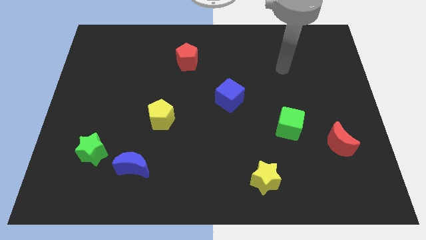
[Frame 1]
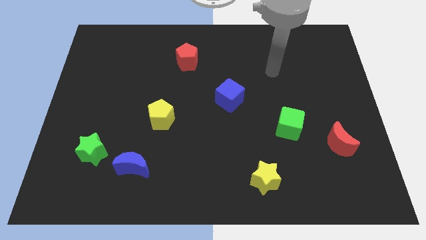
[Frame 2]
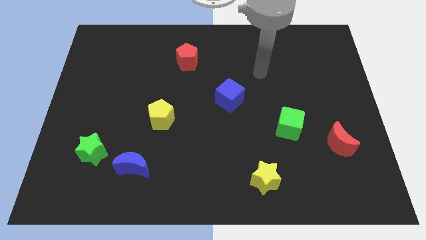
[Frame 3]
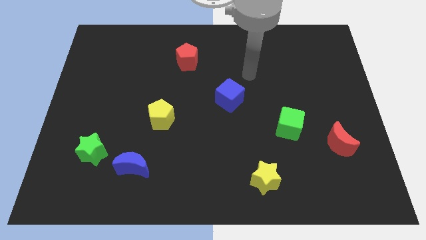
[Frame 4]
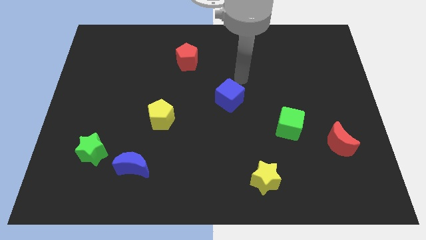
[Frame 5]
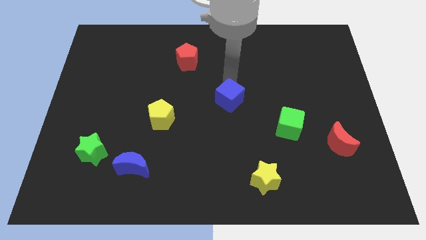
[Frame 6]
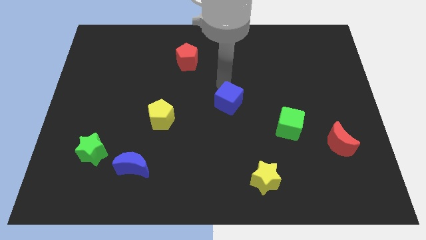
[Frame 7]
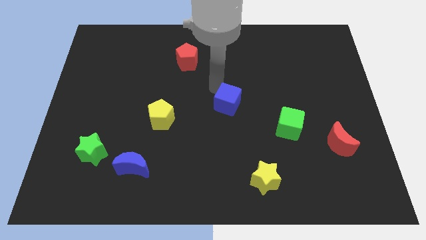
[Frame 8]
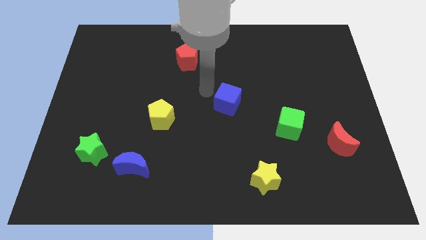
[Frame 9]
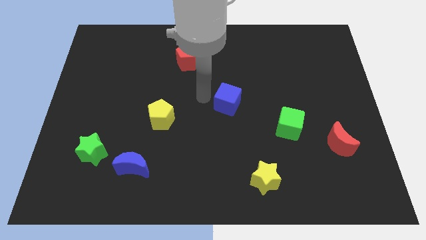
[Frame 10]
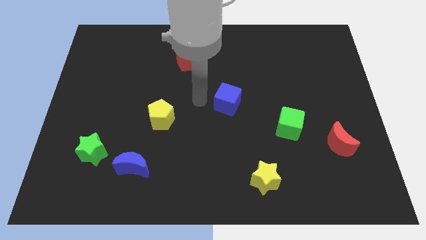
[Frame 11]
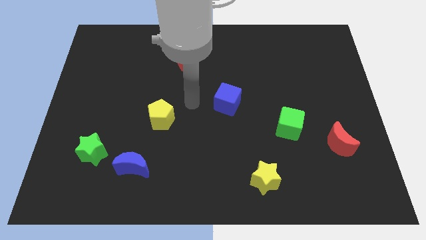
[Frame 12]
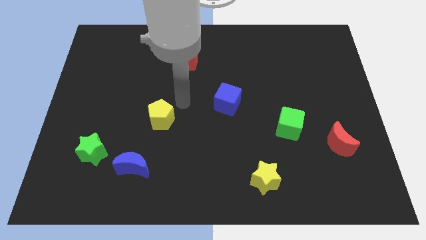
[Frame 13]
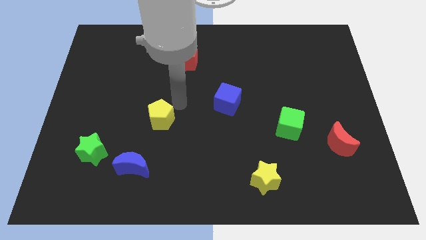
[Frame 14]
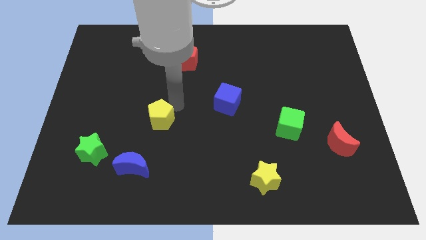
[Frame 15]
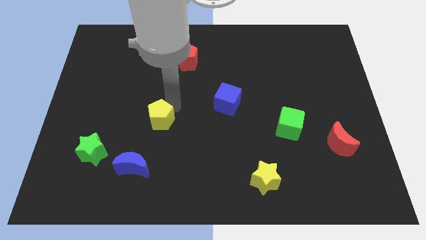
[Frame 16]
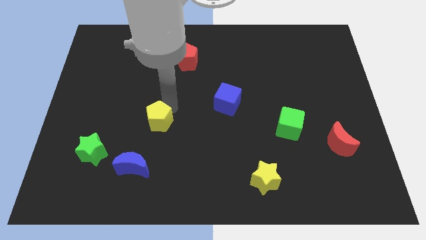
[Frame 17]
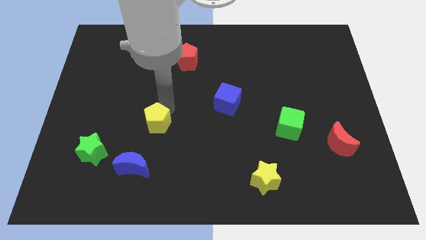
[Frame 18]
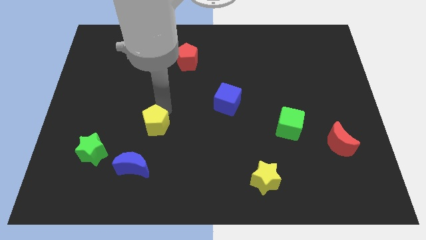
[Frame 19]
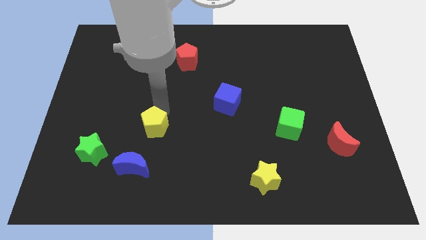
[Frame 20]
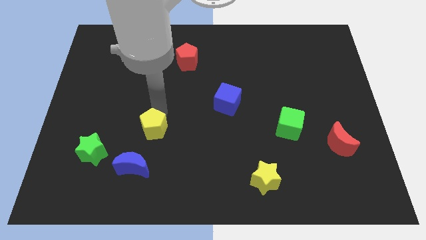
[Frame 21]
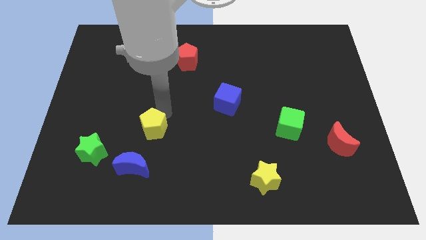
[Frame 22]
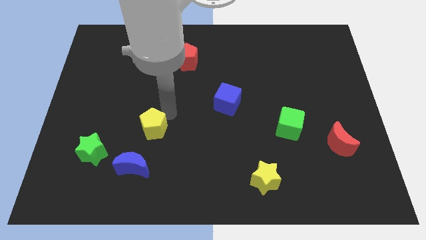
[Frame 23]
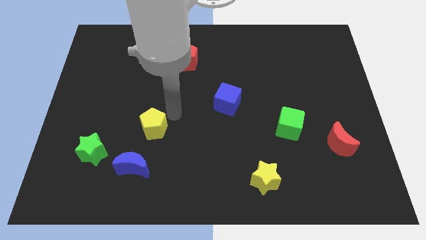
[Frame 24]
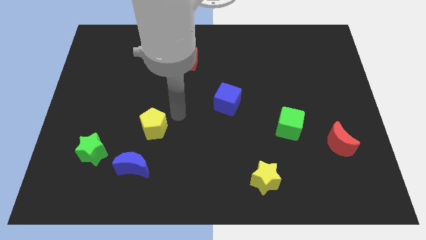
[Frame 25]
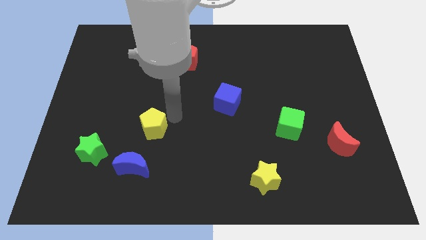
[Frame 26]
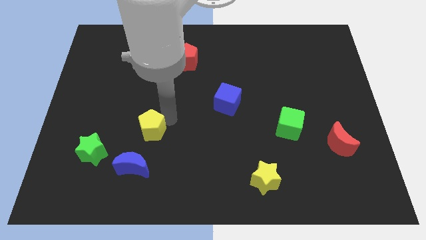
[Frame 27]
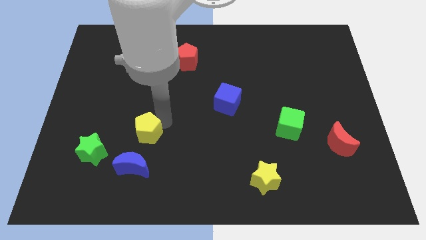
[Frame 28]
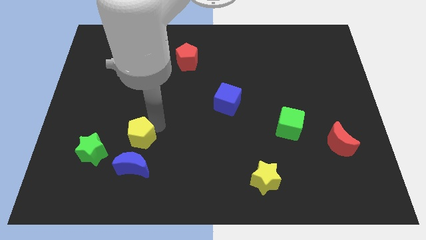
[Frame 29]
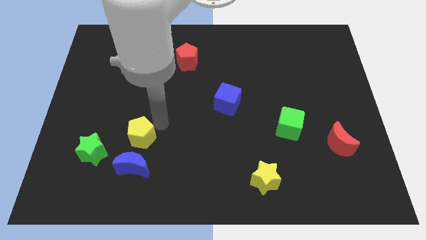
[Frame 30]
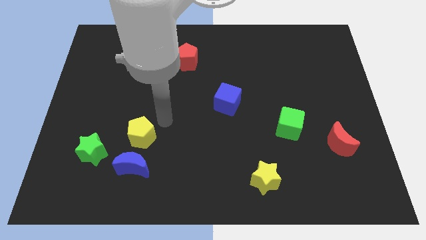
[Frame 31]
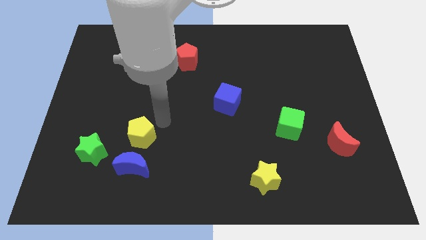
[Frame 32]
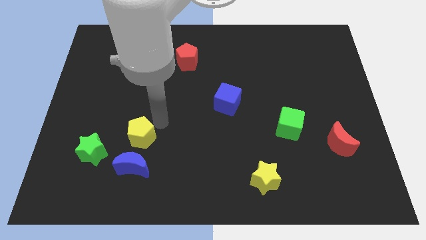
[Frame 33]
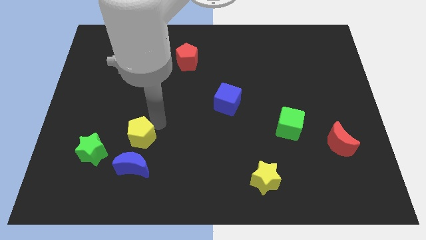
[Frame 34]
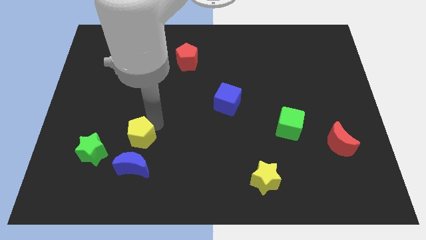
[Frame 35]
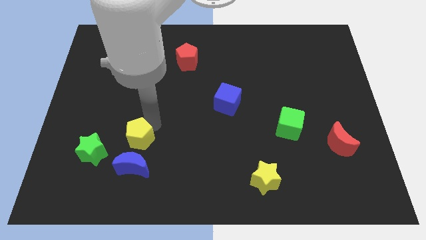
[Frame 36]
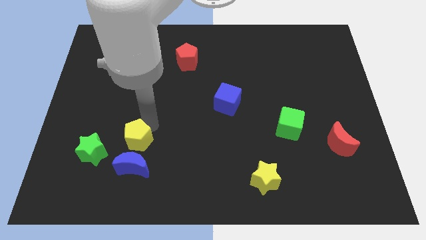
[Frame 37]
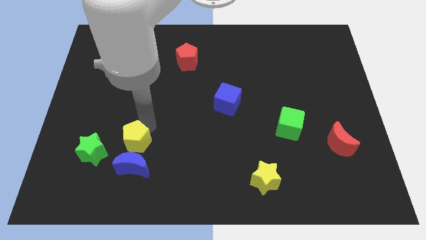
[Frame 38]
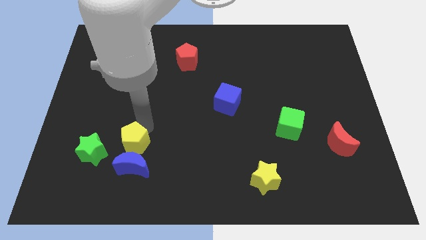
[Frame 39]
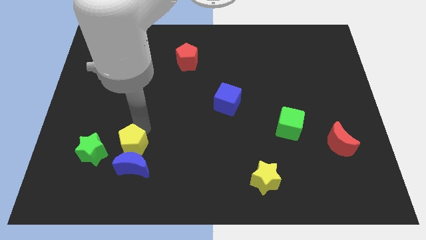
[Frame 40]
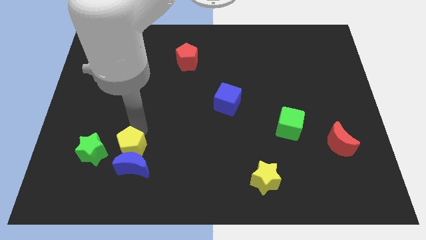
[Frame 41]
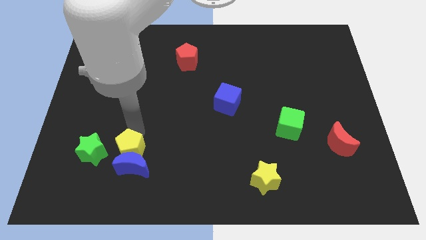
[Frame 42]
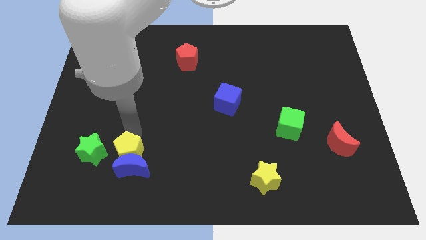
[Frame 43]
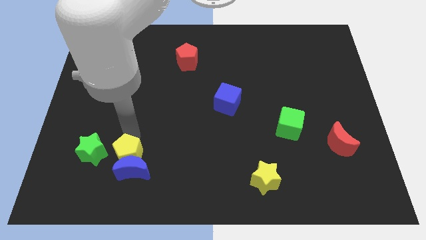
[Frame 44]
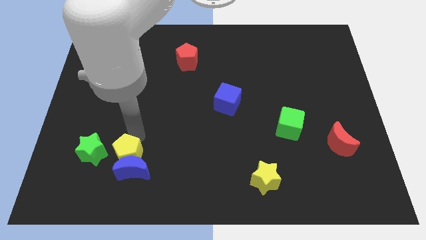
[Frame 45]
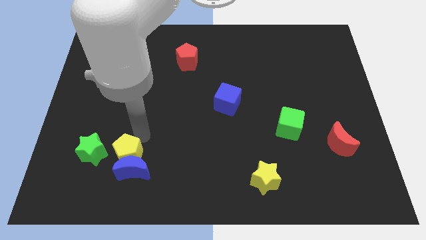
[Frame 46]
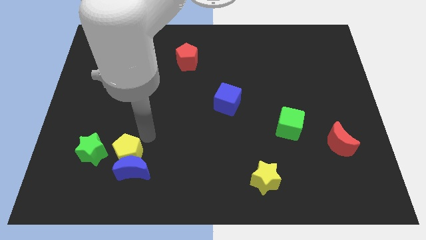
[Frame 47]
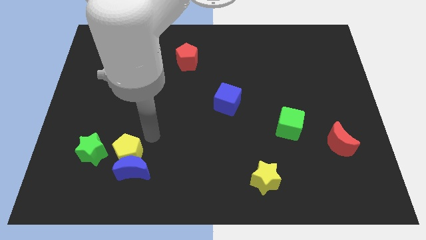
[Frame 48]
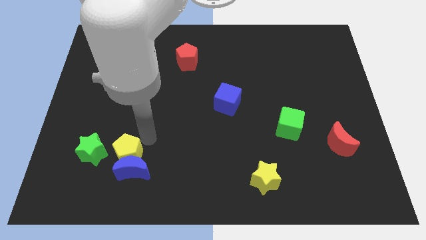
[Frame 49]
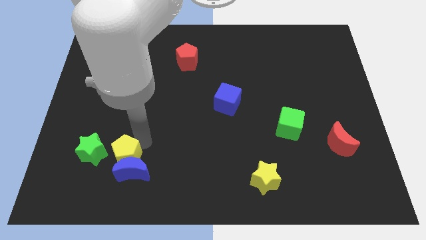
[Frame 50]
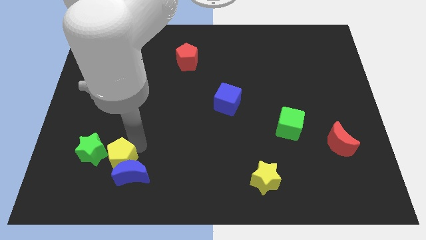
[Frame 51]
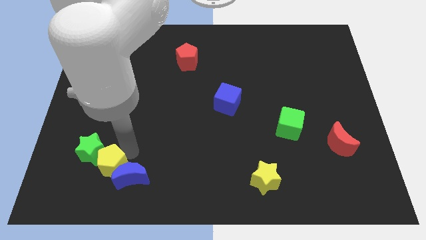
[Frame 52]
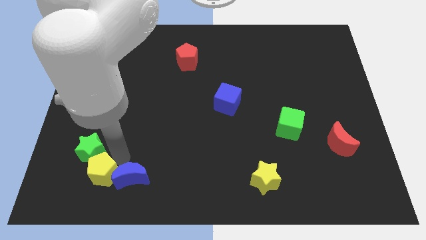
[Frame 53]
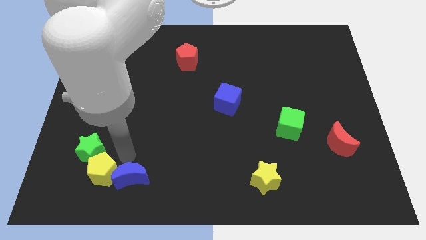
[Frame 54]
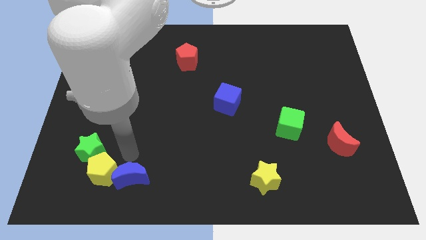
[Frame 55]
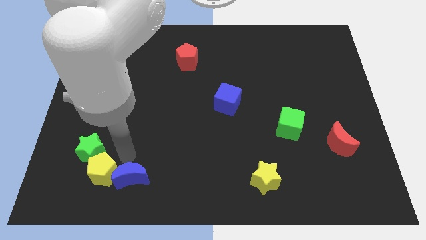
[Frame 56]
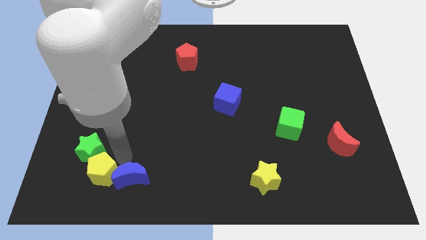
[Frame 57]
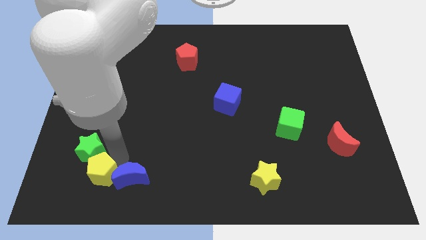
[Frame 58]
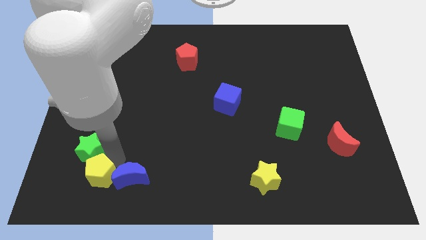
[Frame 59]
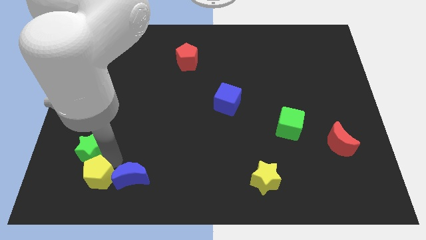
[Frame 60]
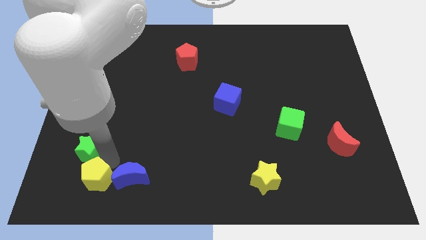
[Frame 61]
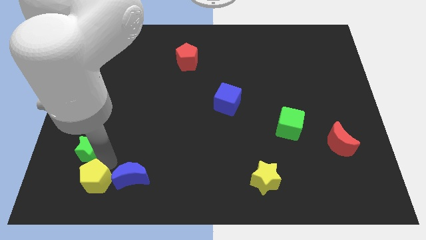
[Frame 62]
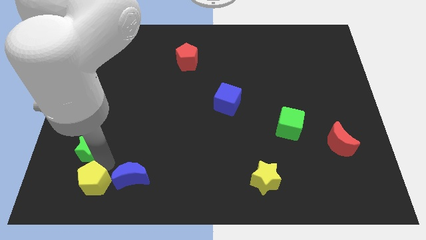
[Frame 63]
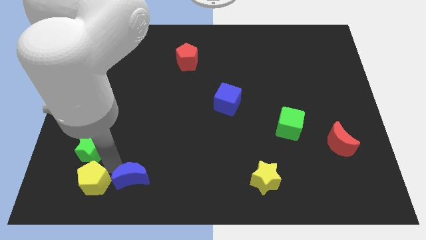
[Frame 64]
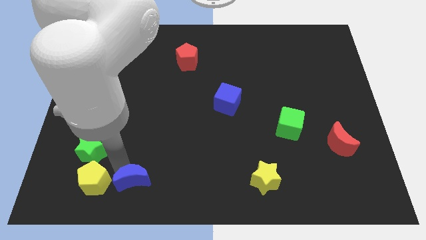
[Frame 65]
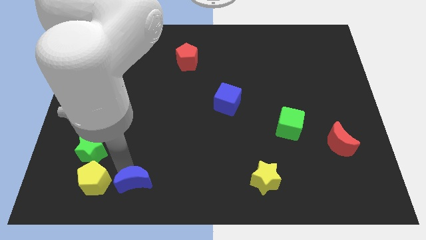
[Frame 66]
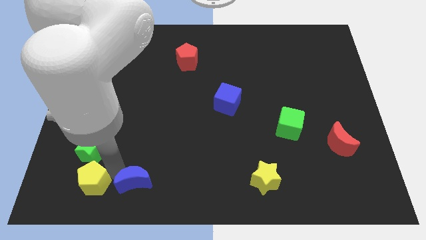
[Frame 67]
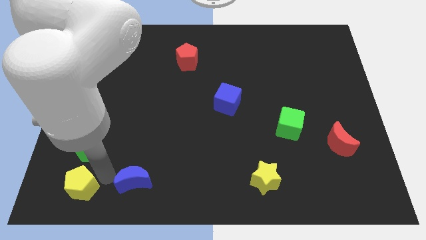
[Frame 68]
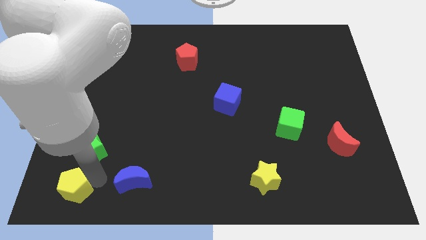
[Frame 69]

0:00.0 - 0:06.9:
push the yellow pentagon to the bottom left corner
